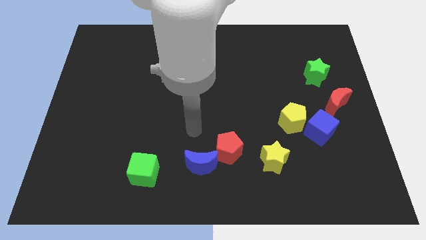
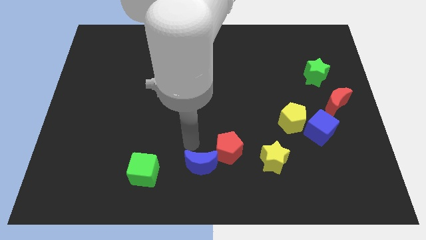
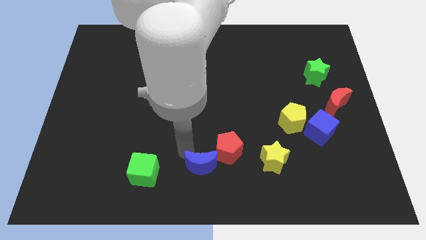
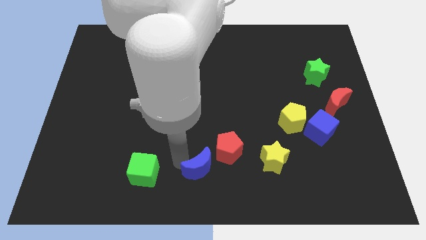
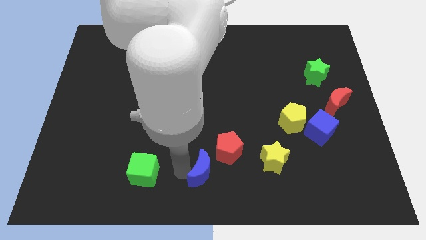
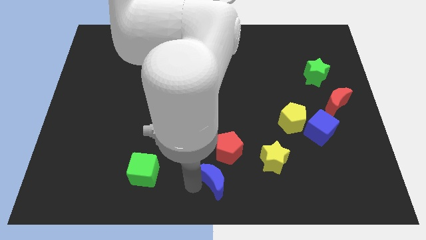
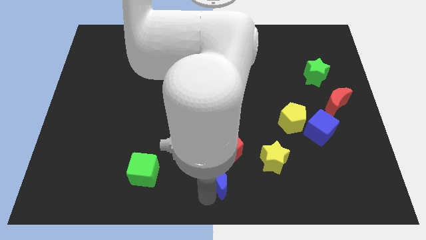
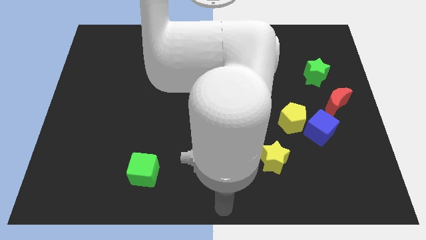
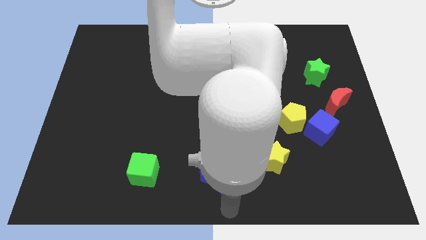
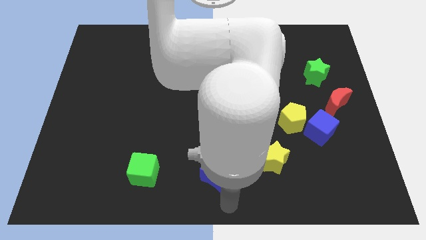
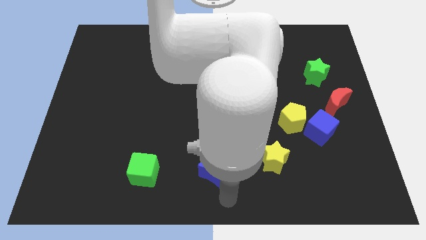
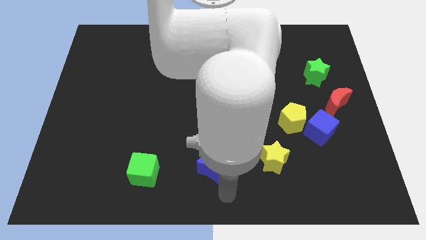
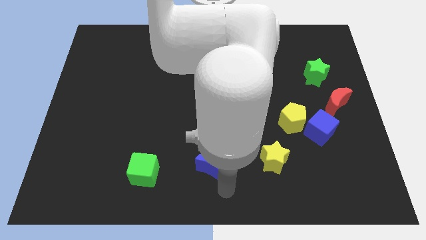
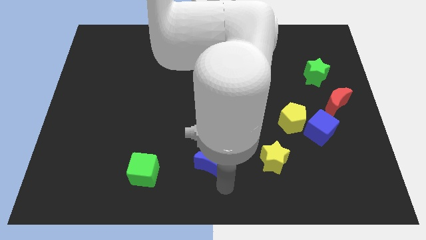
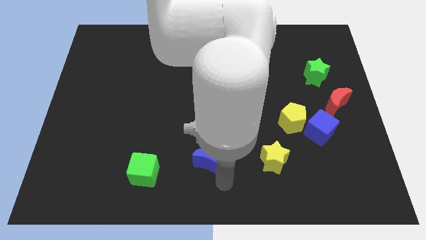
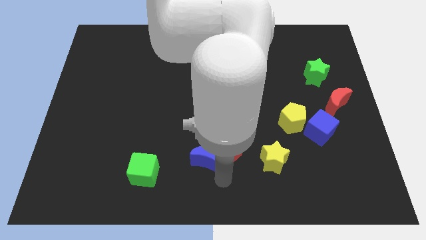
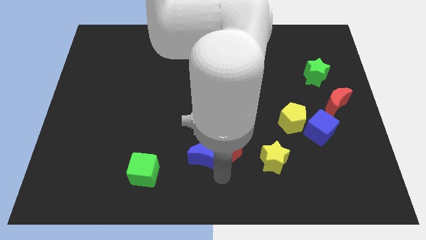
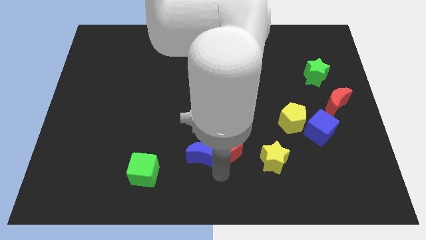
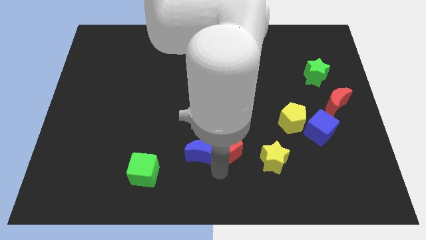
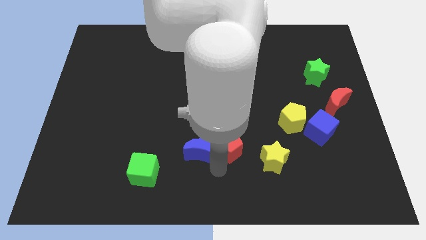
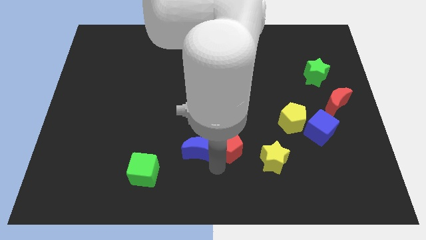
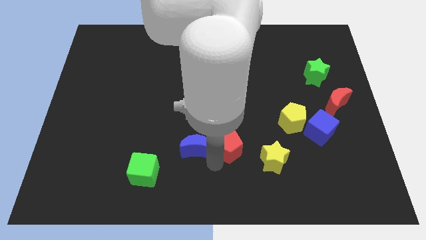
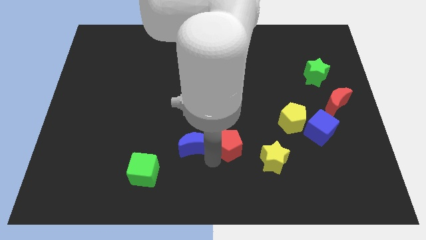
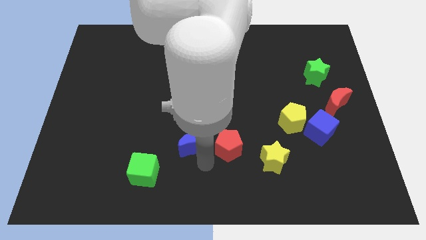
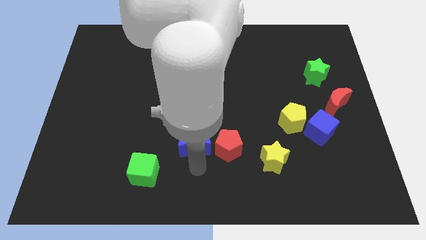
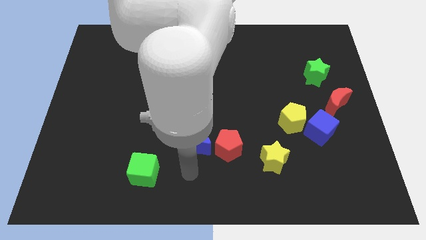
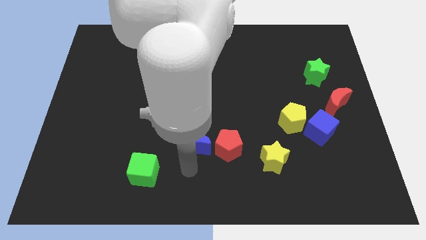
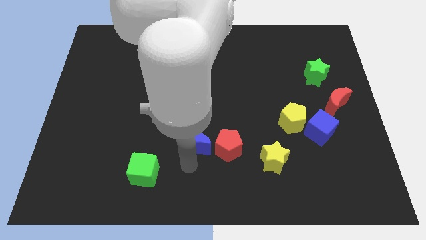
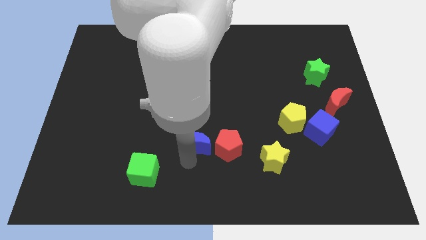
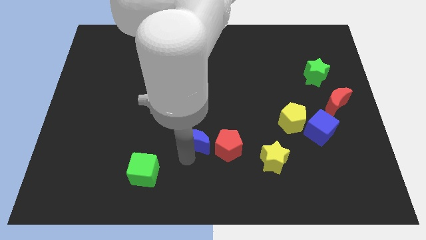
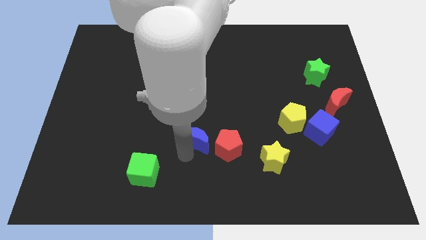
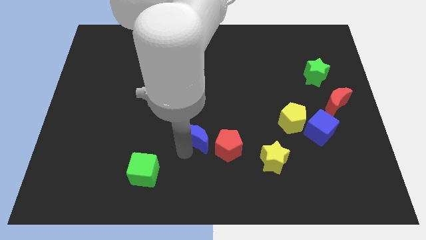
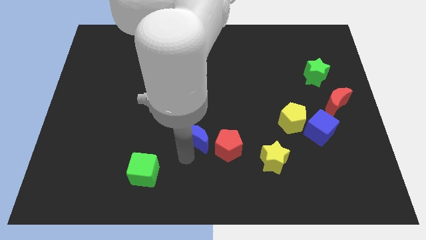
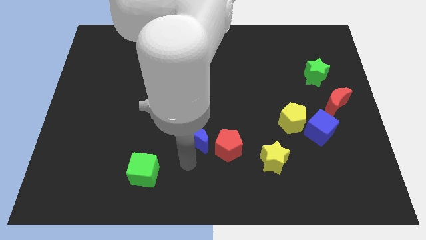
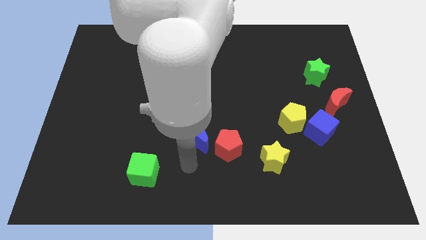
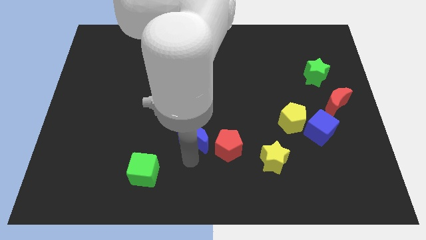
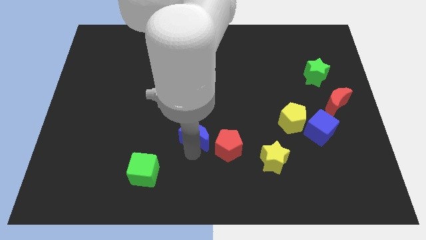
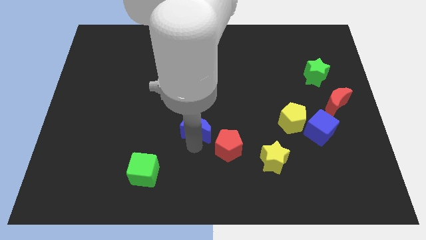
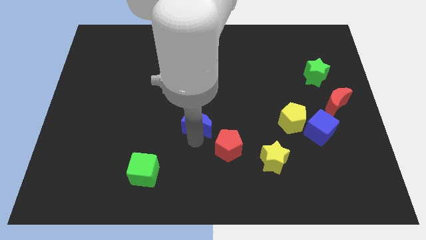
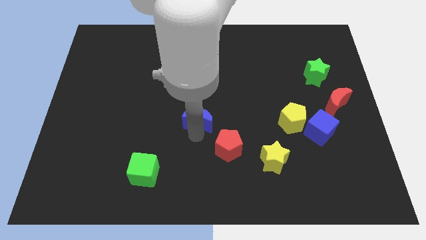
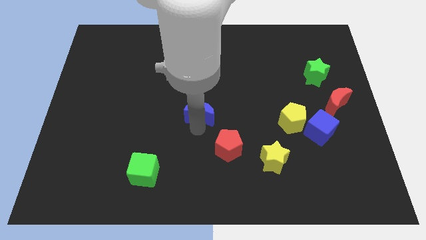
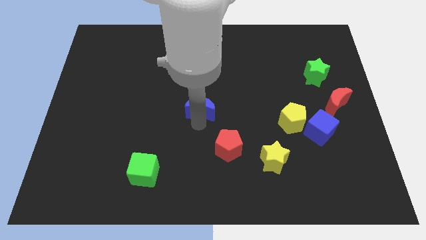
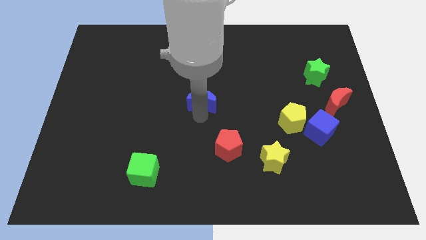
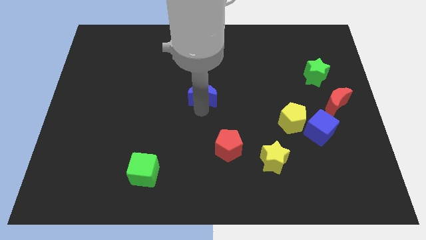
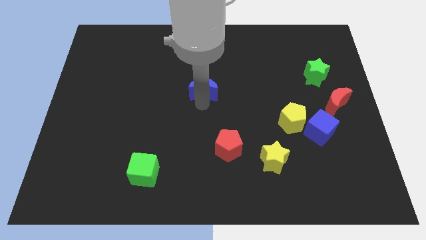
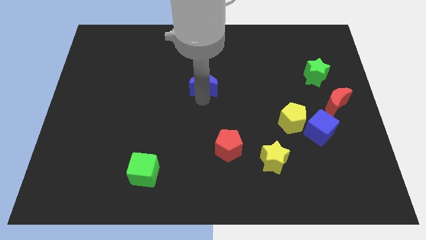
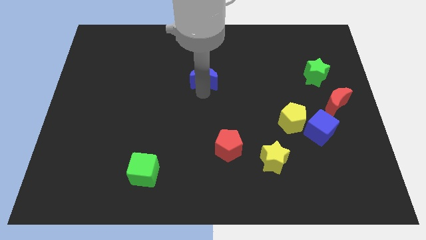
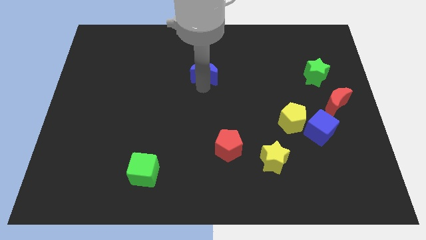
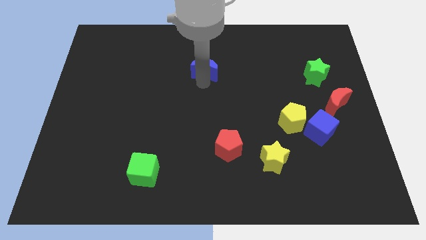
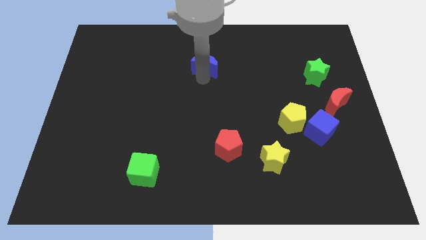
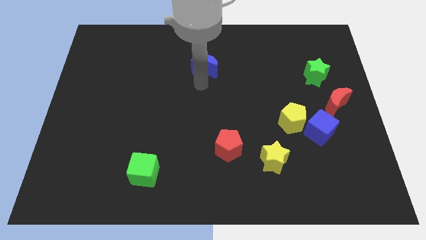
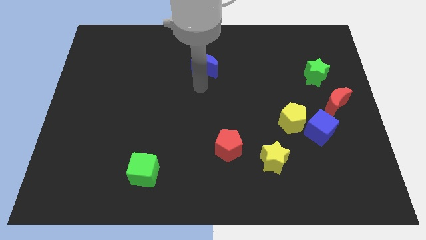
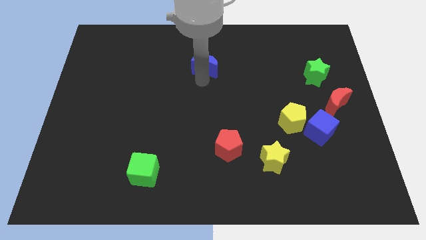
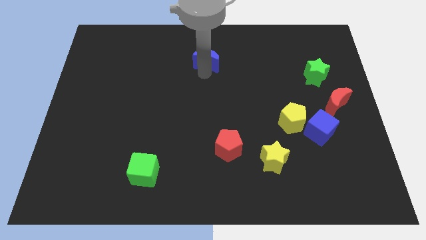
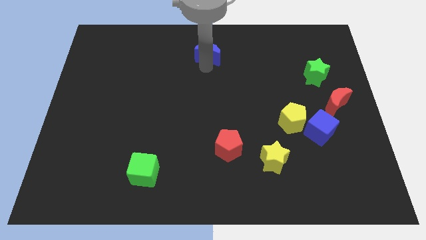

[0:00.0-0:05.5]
put the blue moon to the top

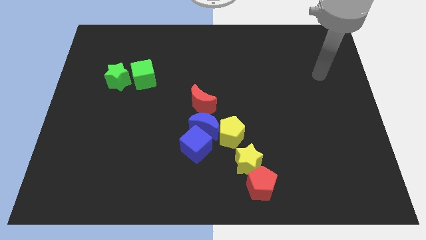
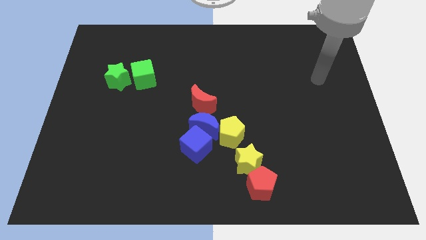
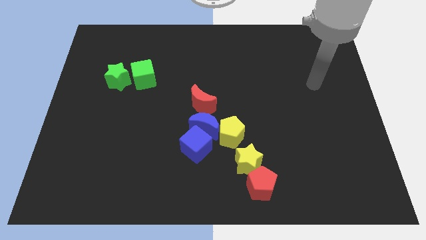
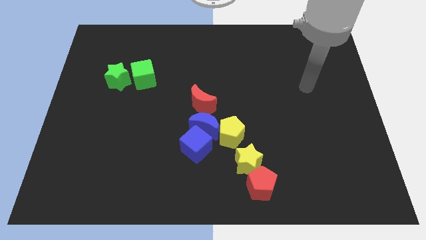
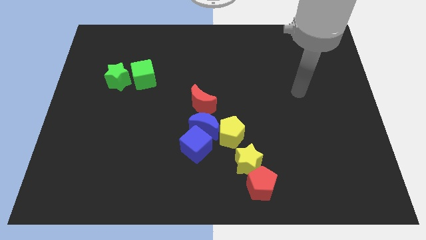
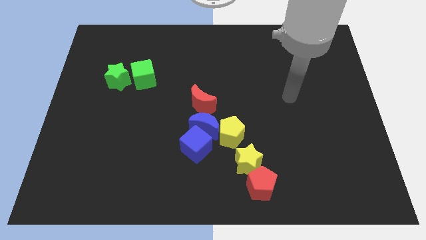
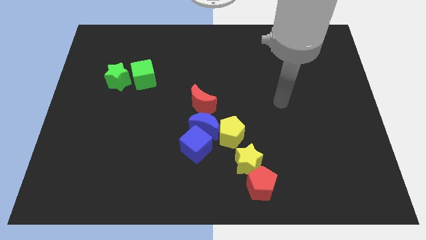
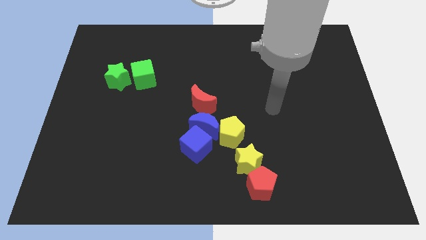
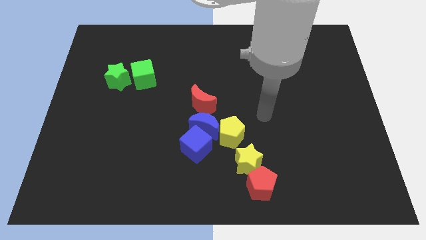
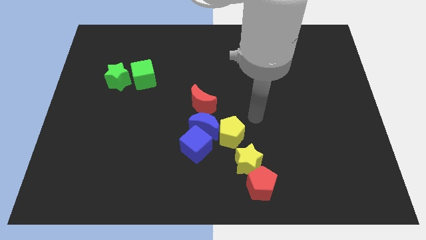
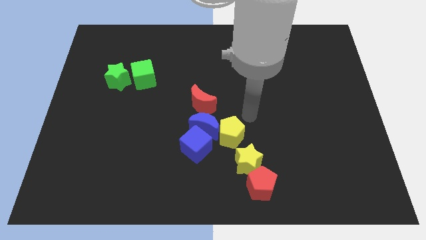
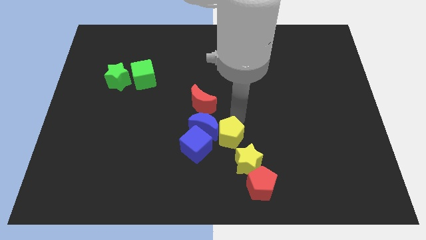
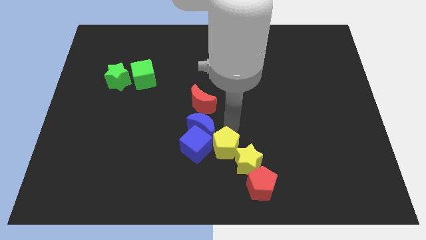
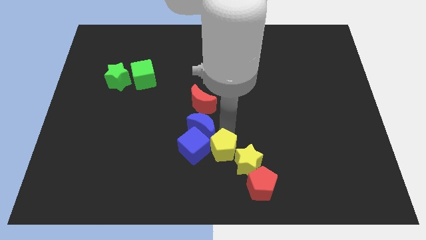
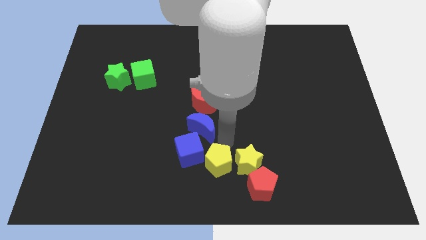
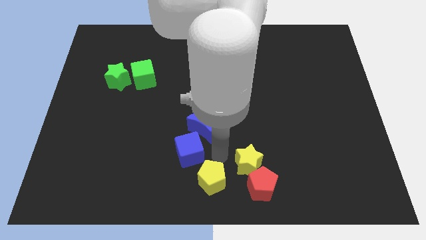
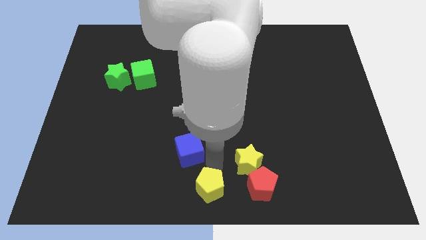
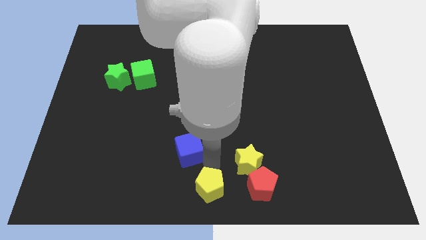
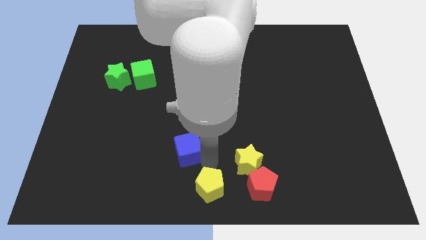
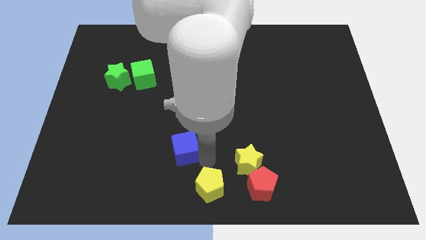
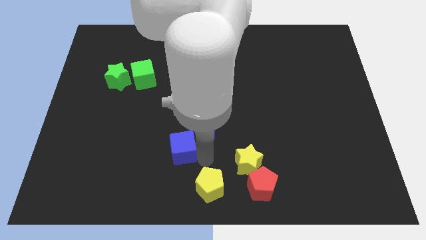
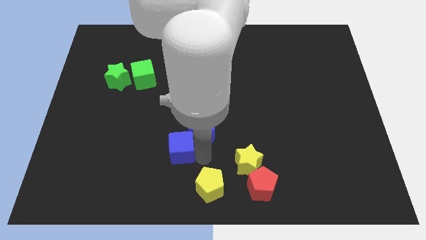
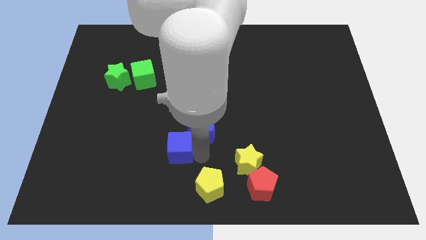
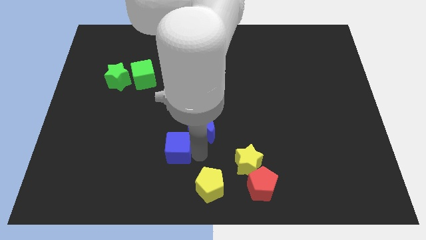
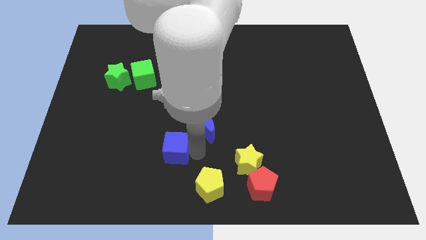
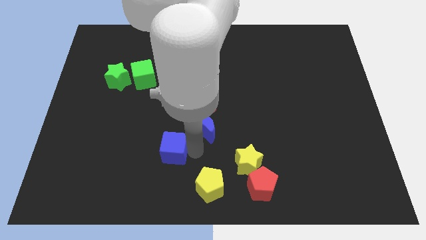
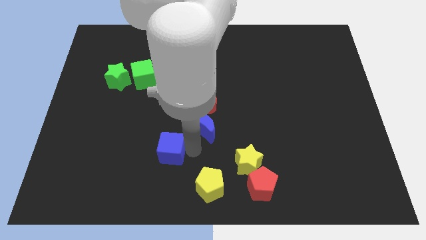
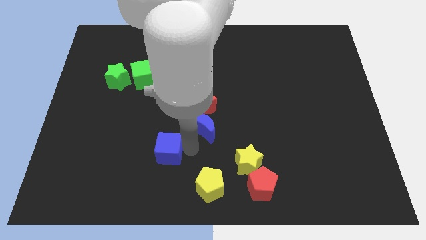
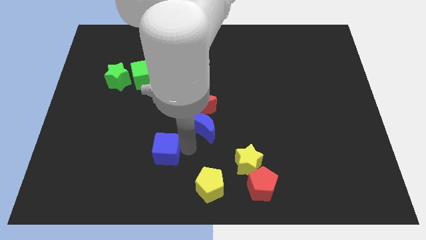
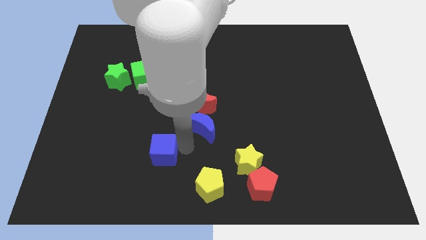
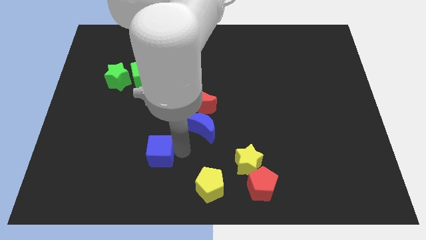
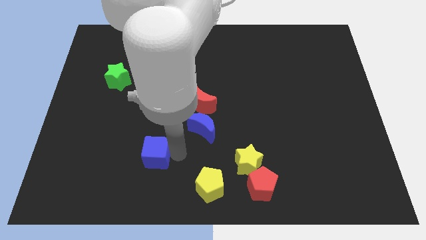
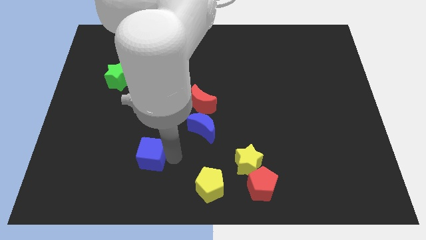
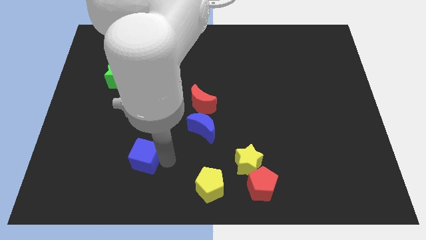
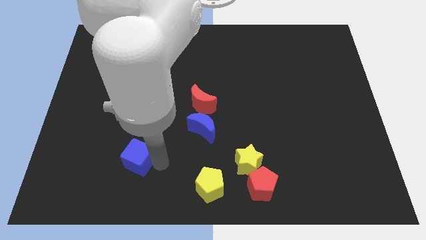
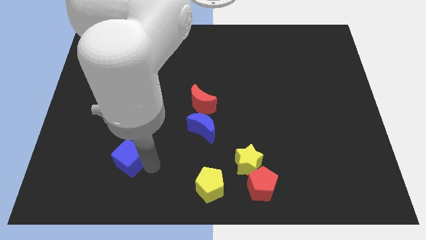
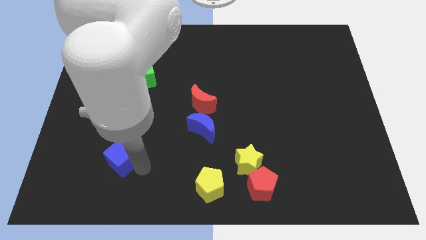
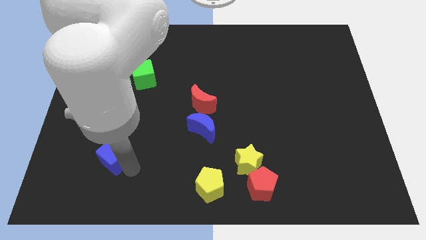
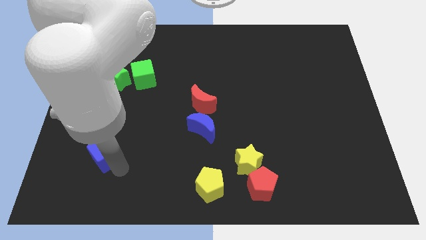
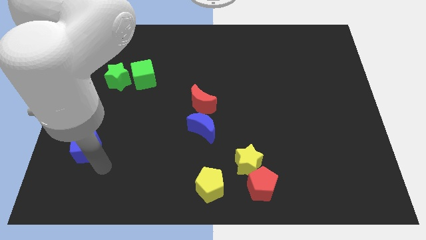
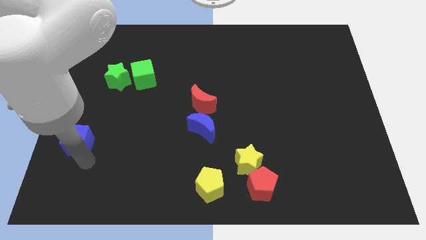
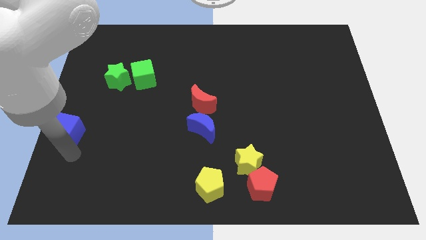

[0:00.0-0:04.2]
move the blue cube to the center left
